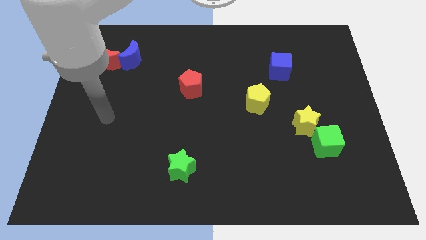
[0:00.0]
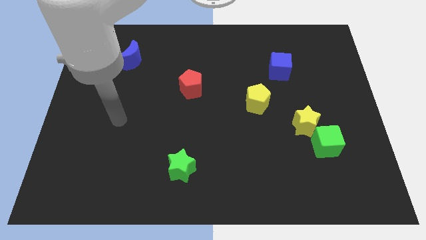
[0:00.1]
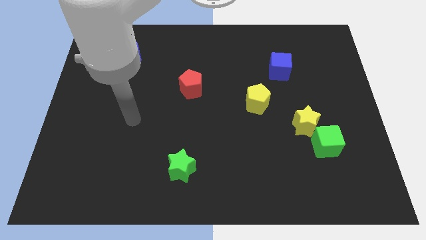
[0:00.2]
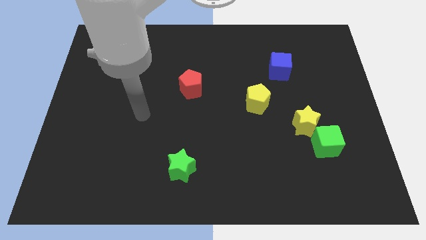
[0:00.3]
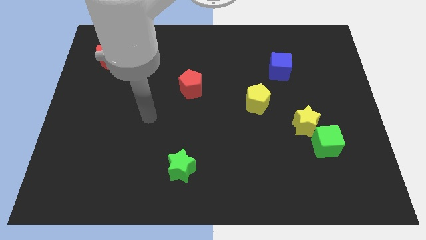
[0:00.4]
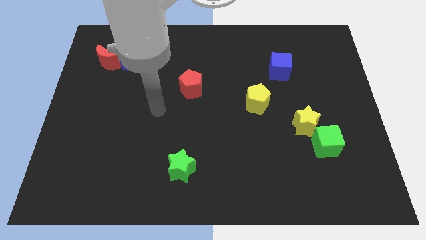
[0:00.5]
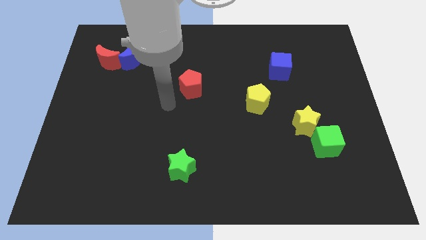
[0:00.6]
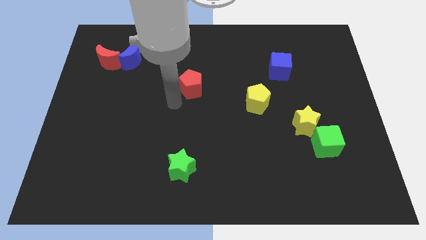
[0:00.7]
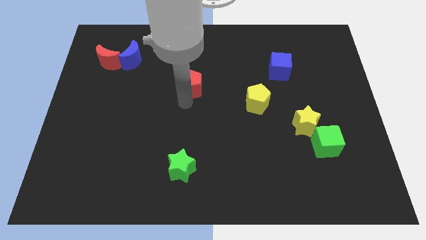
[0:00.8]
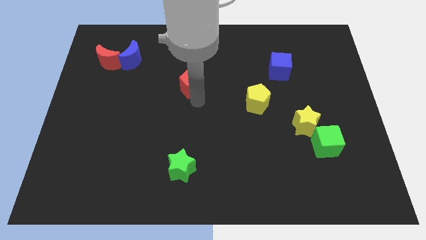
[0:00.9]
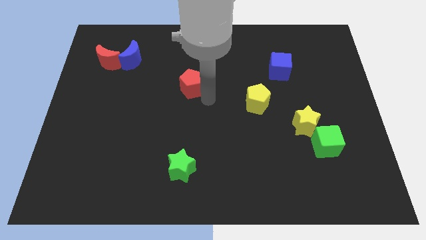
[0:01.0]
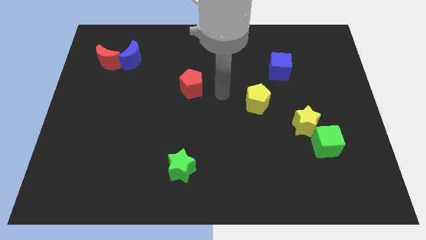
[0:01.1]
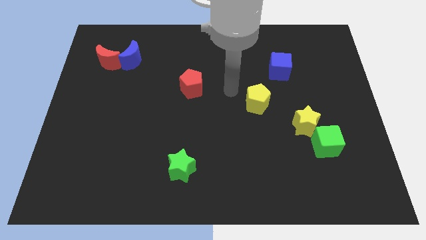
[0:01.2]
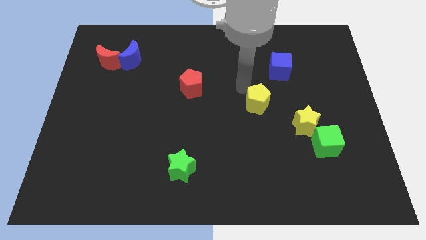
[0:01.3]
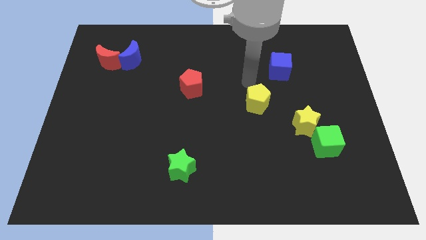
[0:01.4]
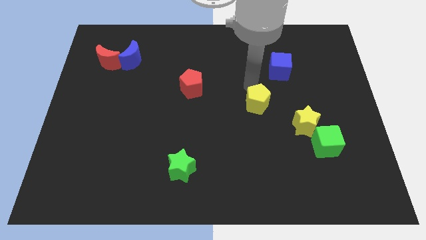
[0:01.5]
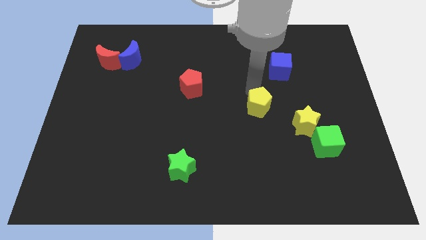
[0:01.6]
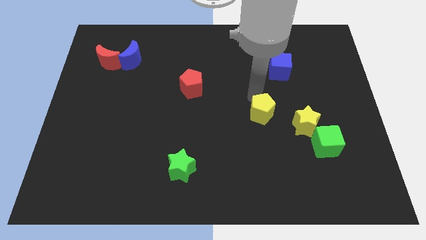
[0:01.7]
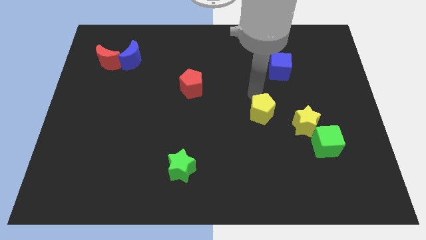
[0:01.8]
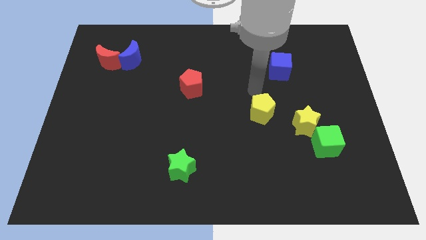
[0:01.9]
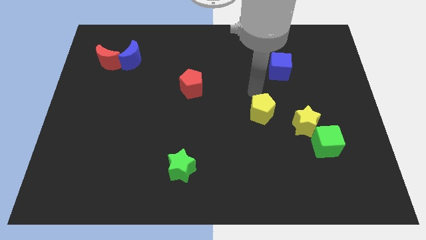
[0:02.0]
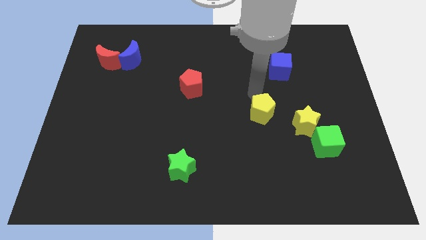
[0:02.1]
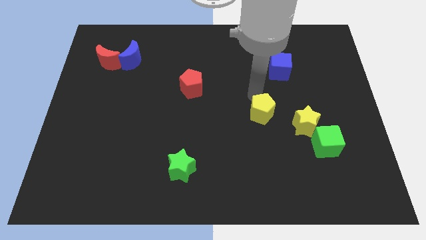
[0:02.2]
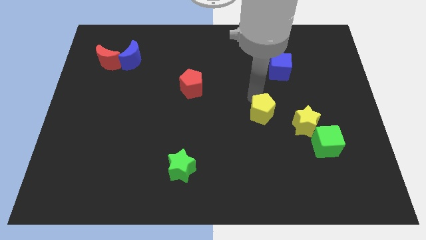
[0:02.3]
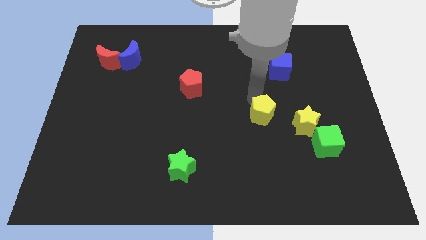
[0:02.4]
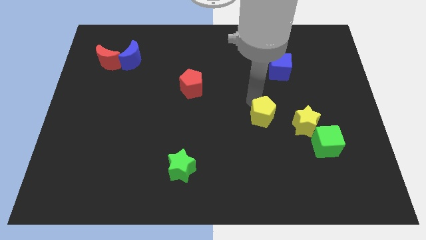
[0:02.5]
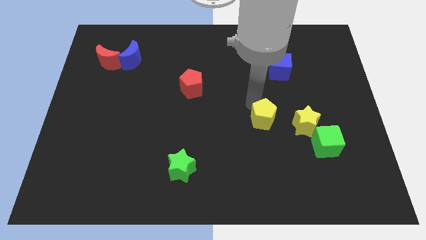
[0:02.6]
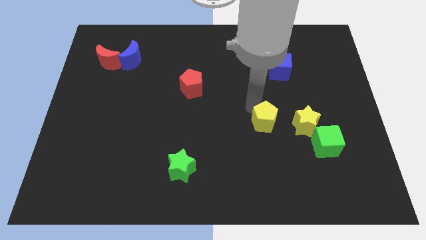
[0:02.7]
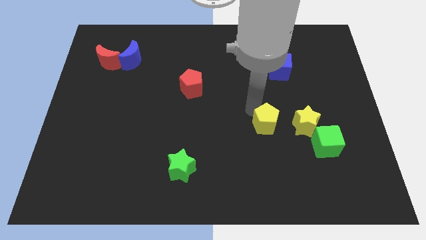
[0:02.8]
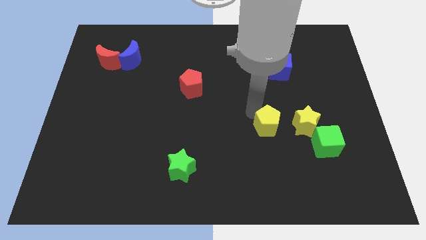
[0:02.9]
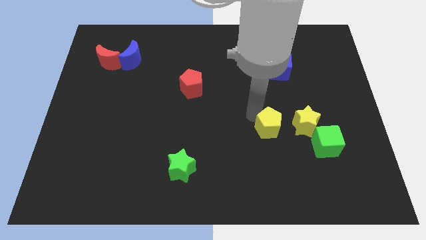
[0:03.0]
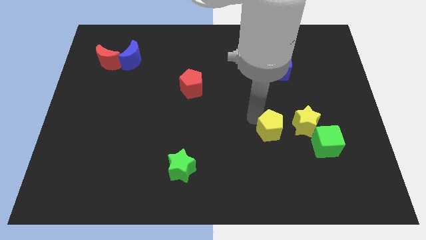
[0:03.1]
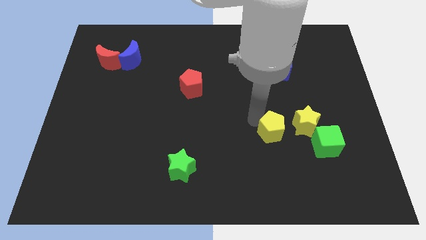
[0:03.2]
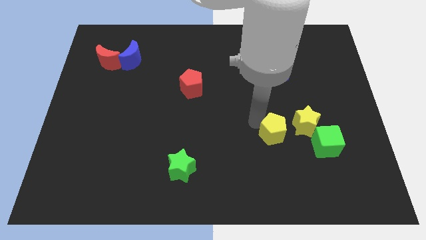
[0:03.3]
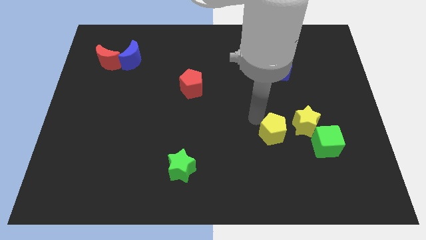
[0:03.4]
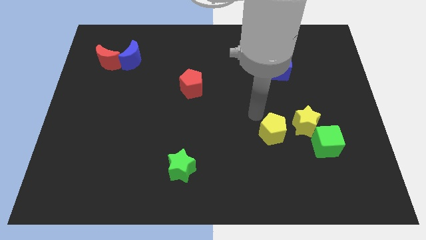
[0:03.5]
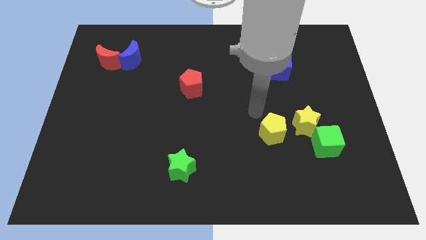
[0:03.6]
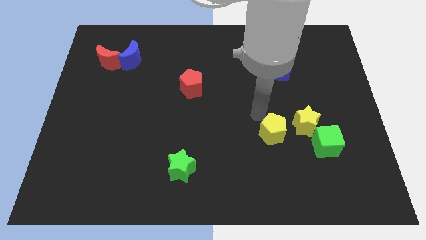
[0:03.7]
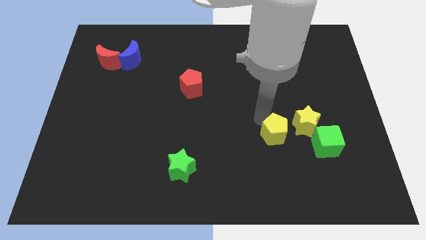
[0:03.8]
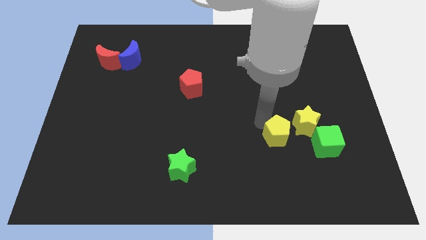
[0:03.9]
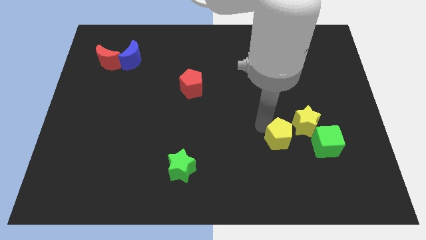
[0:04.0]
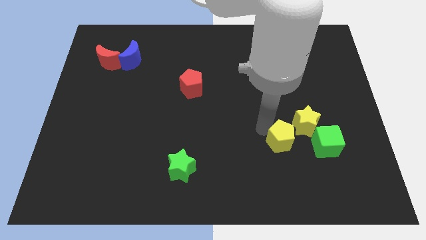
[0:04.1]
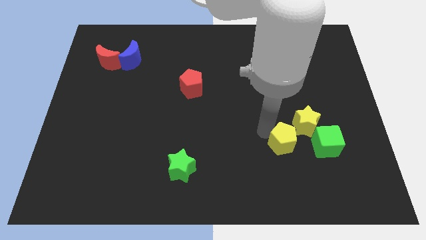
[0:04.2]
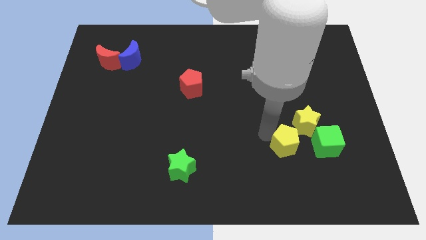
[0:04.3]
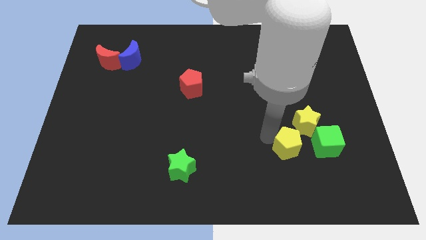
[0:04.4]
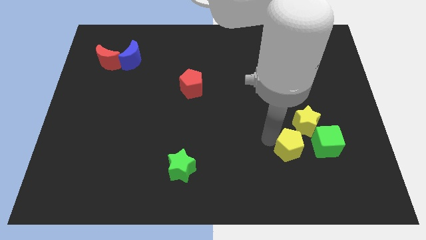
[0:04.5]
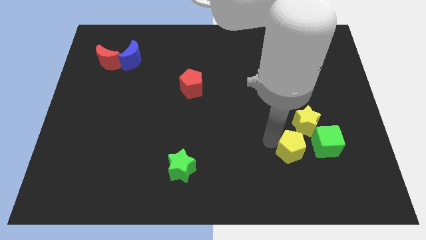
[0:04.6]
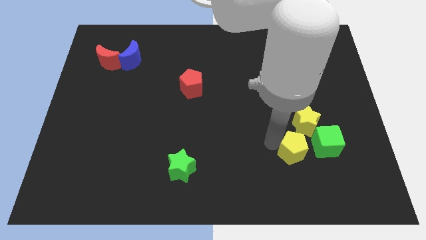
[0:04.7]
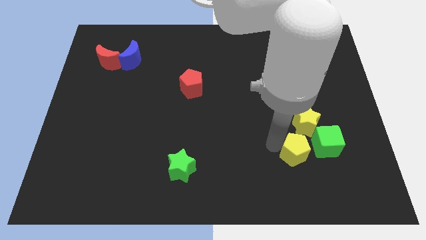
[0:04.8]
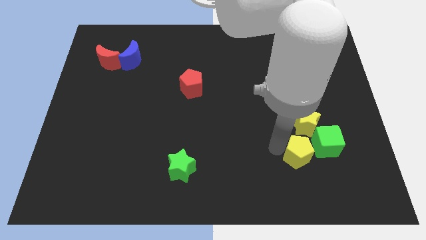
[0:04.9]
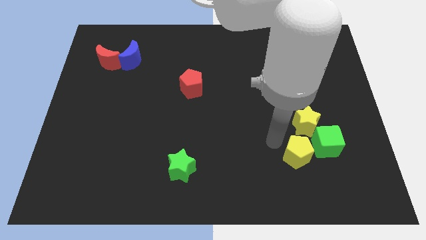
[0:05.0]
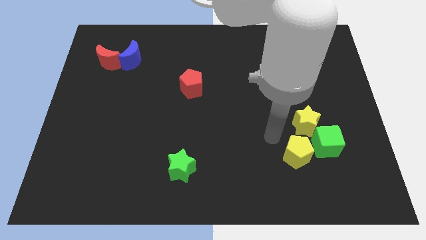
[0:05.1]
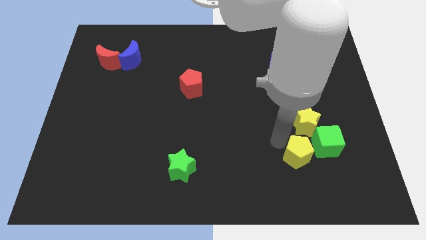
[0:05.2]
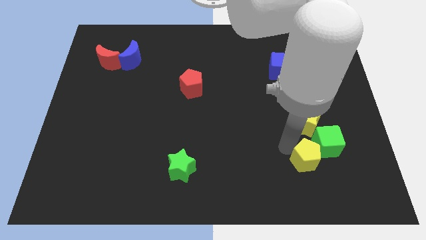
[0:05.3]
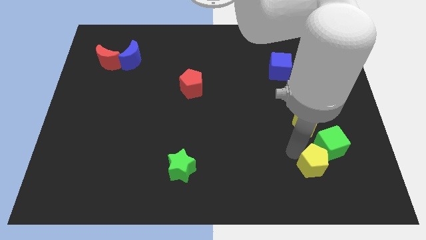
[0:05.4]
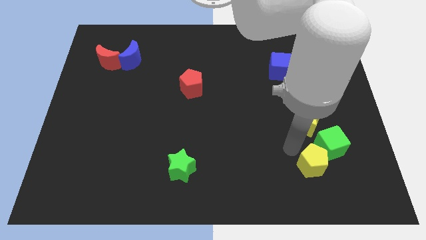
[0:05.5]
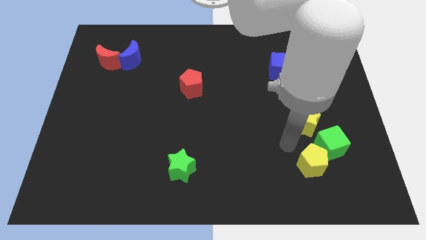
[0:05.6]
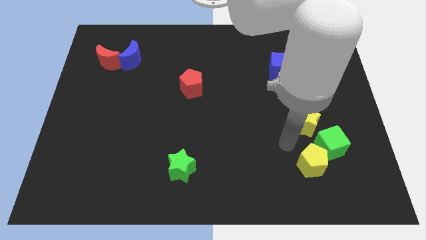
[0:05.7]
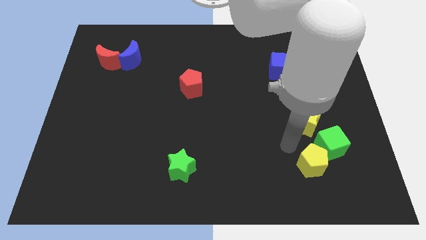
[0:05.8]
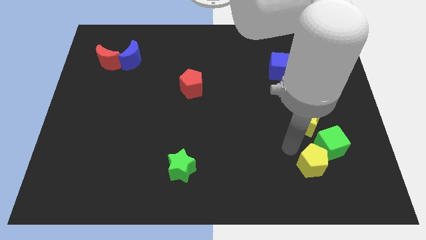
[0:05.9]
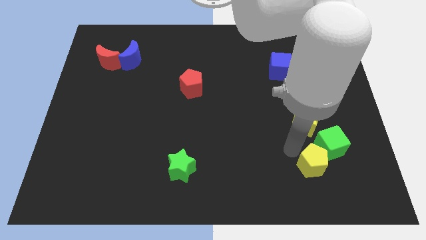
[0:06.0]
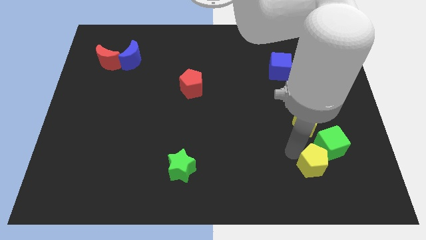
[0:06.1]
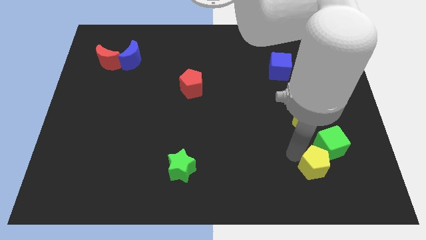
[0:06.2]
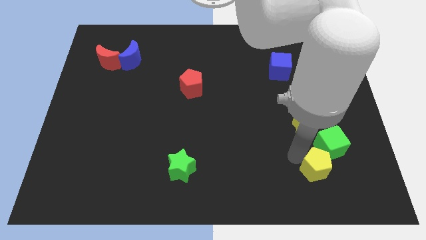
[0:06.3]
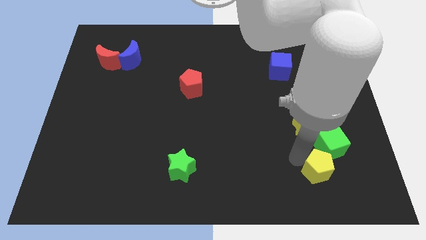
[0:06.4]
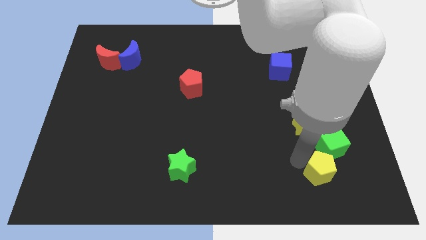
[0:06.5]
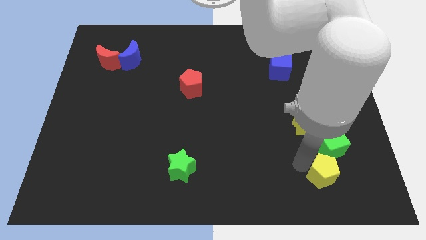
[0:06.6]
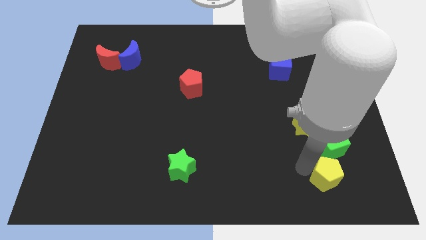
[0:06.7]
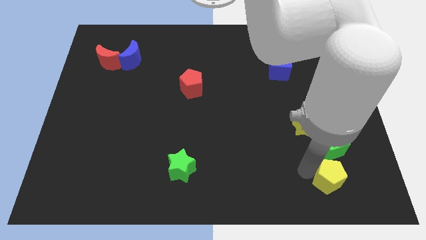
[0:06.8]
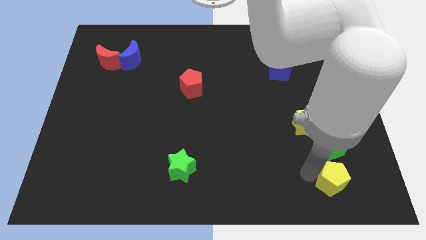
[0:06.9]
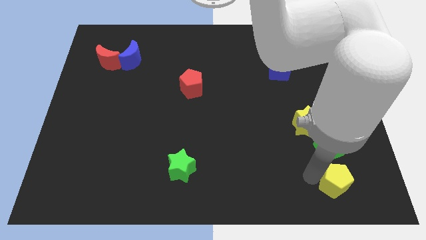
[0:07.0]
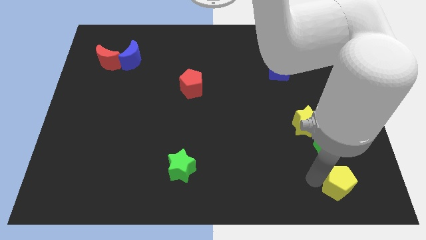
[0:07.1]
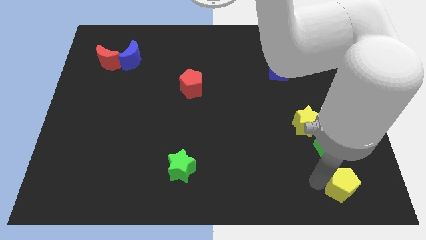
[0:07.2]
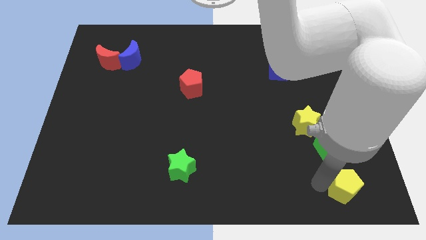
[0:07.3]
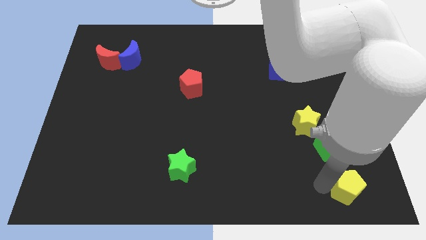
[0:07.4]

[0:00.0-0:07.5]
put the yellow pentagon to the lower right corner
